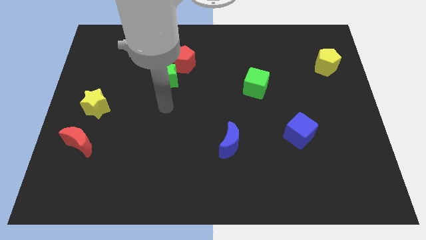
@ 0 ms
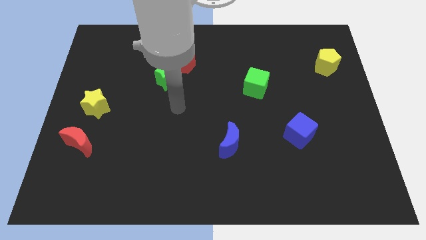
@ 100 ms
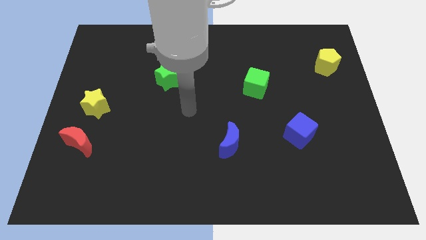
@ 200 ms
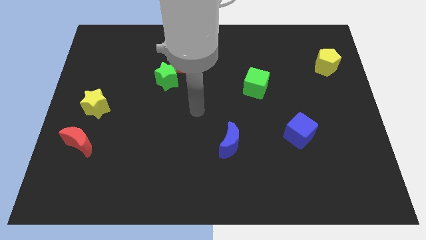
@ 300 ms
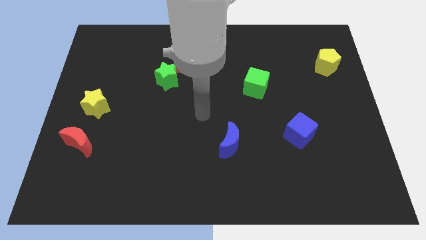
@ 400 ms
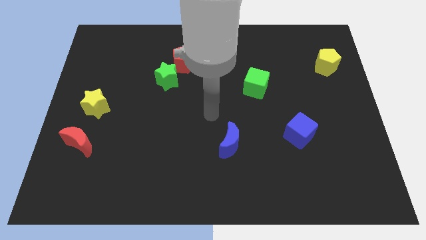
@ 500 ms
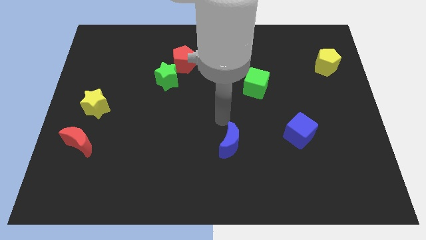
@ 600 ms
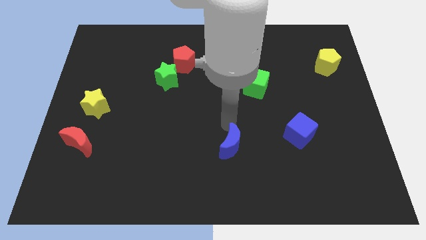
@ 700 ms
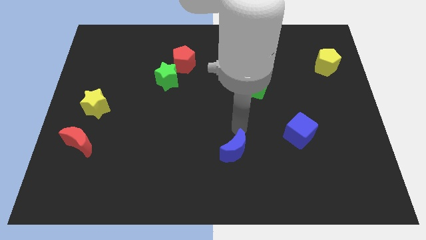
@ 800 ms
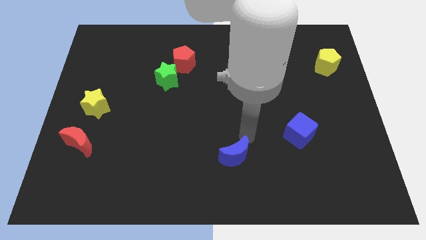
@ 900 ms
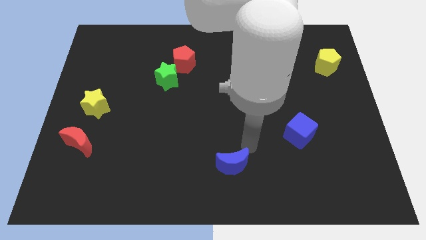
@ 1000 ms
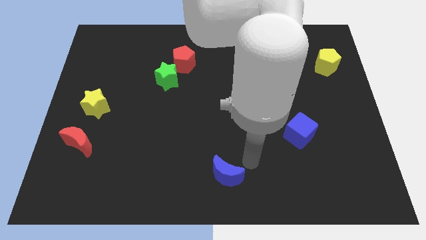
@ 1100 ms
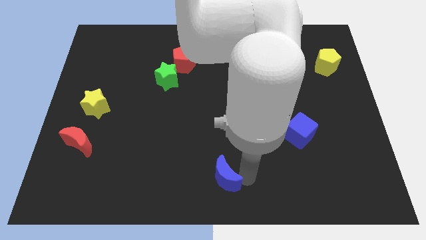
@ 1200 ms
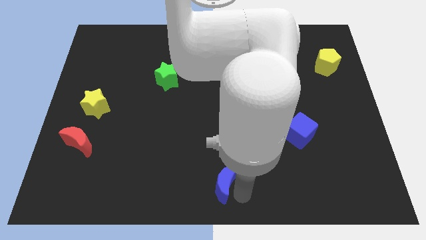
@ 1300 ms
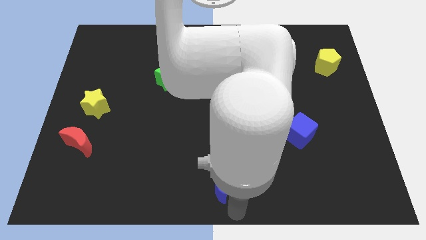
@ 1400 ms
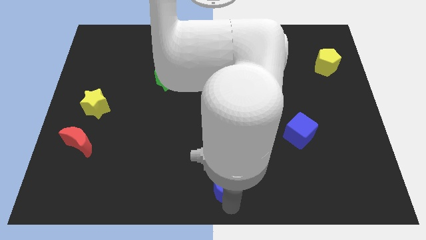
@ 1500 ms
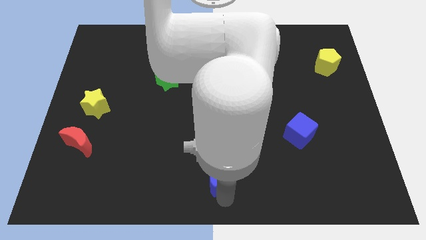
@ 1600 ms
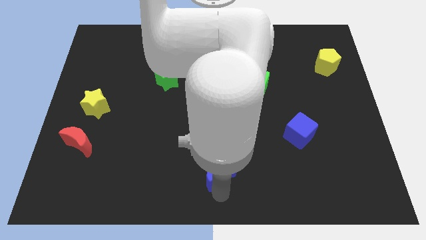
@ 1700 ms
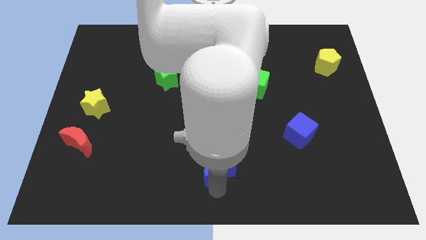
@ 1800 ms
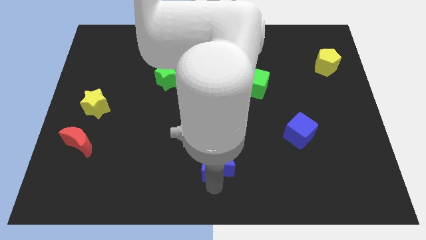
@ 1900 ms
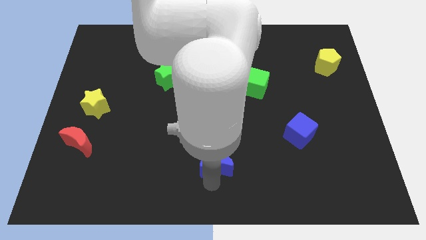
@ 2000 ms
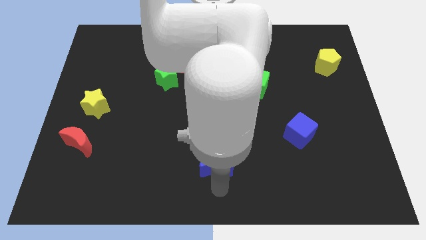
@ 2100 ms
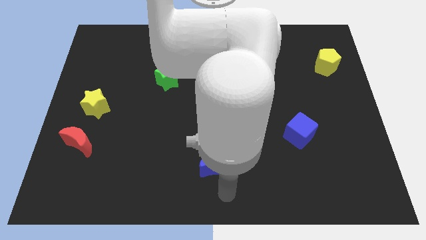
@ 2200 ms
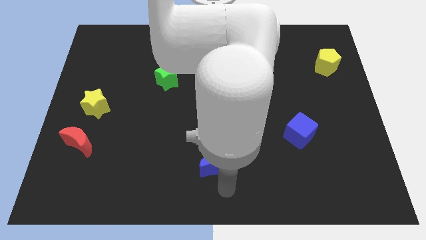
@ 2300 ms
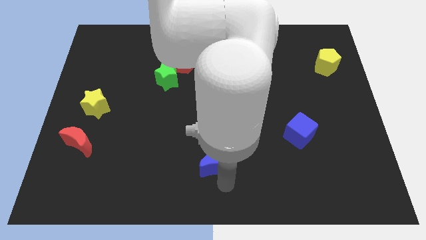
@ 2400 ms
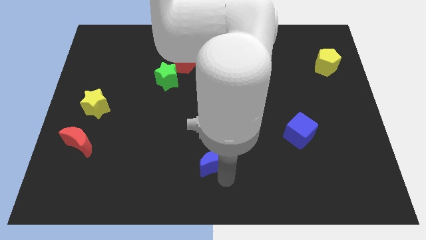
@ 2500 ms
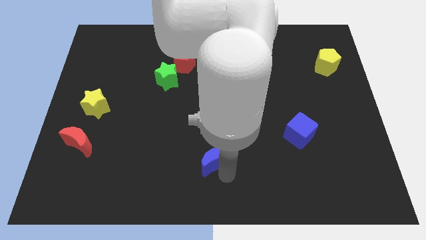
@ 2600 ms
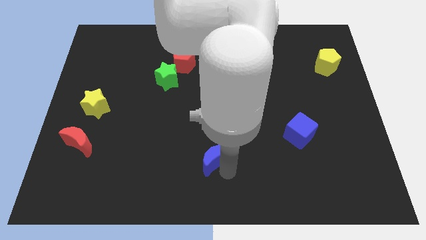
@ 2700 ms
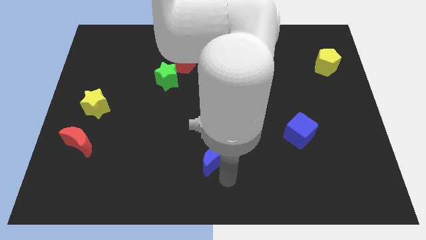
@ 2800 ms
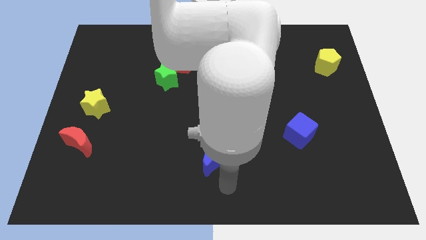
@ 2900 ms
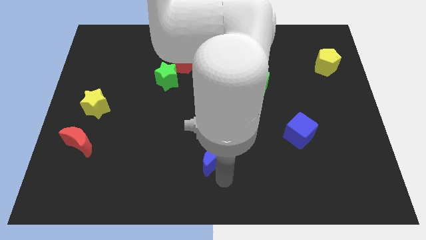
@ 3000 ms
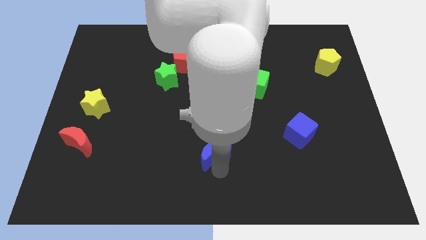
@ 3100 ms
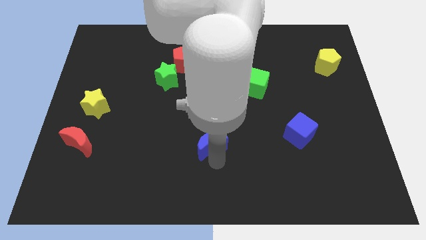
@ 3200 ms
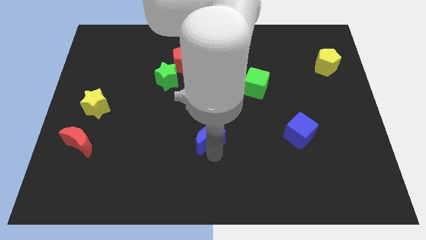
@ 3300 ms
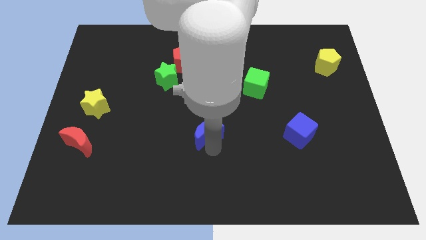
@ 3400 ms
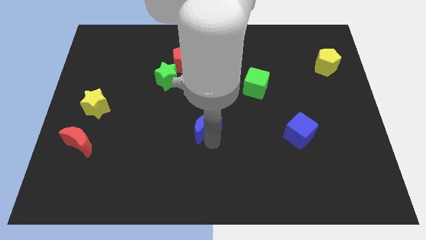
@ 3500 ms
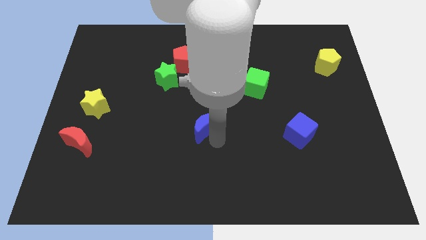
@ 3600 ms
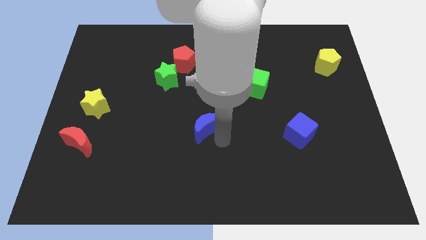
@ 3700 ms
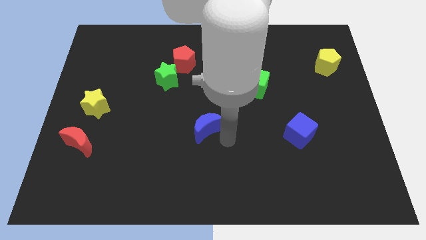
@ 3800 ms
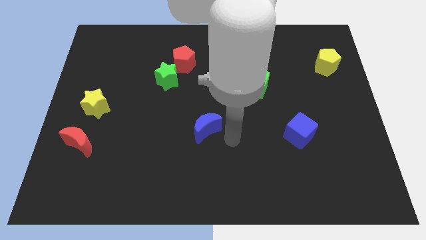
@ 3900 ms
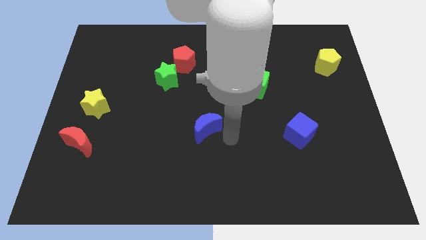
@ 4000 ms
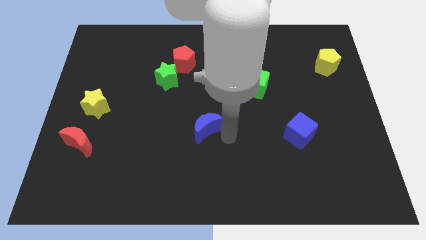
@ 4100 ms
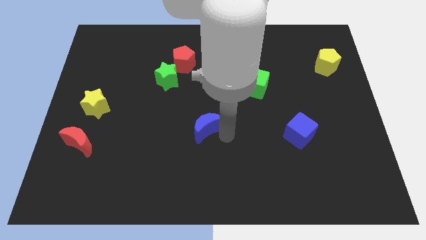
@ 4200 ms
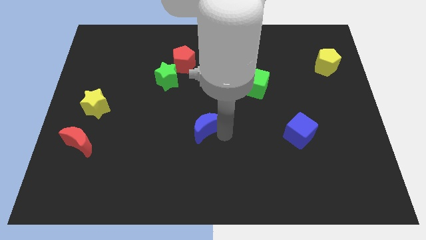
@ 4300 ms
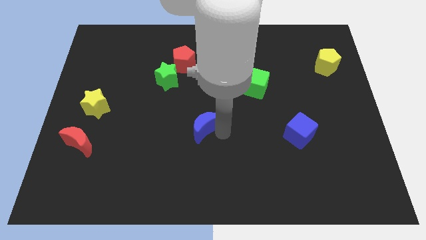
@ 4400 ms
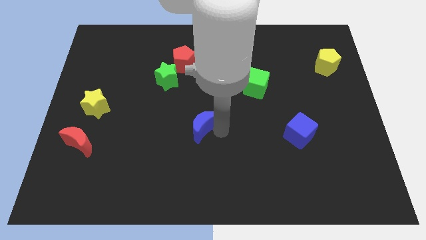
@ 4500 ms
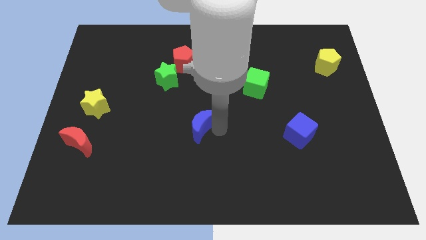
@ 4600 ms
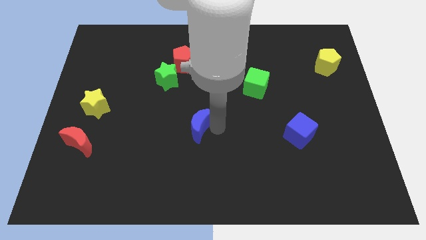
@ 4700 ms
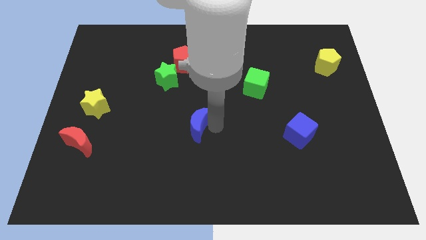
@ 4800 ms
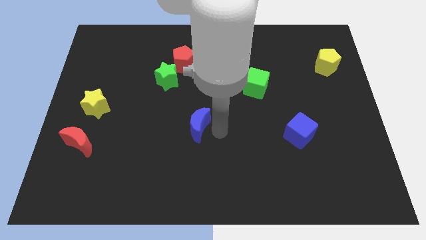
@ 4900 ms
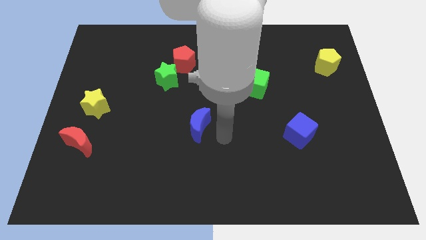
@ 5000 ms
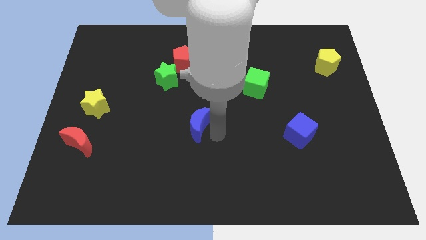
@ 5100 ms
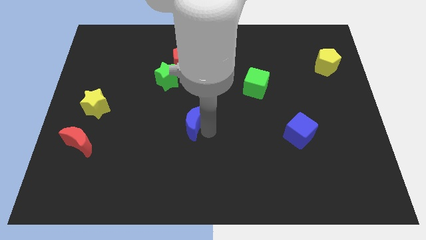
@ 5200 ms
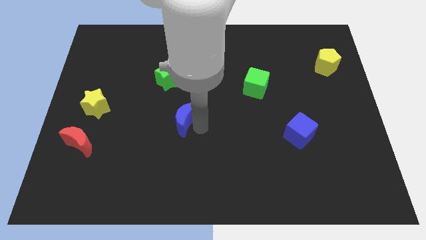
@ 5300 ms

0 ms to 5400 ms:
push the blue moon to the bottom side of the green star

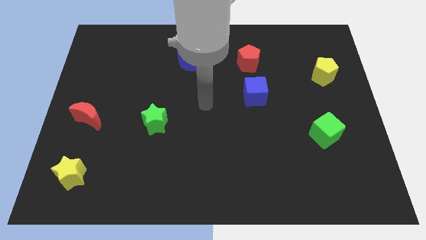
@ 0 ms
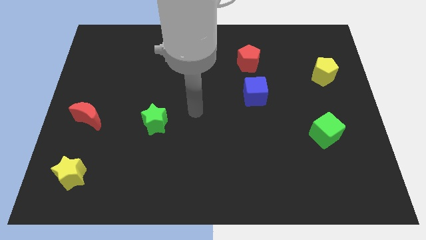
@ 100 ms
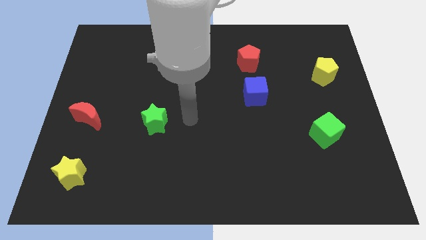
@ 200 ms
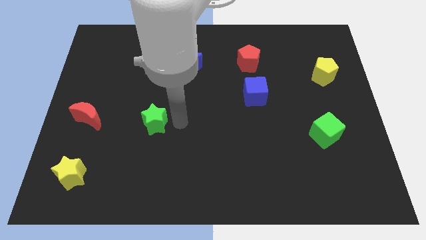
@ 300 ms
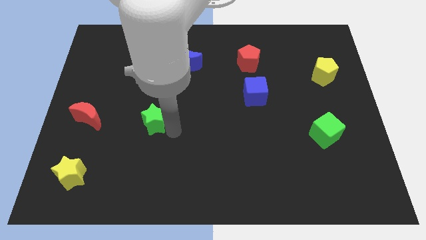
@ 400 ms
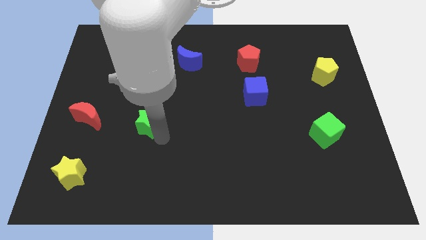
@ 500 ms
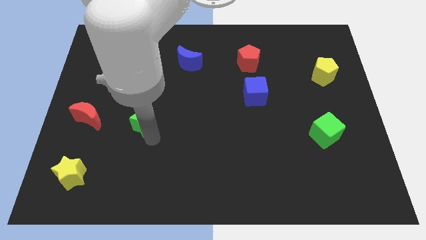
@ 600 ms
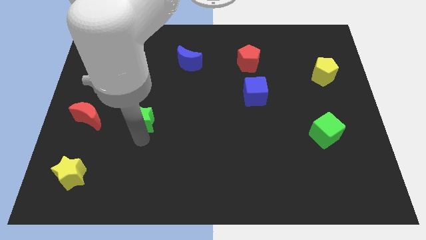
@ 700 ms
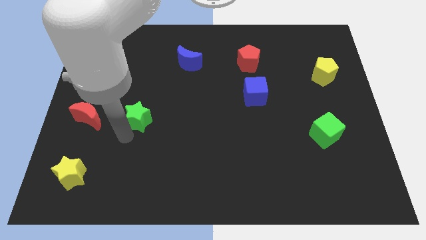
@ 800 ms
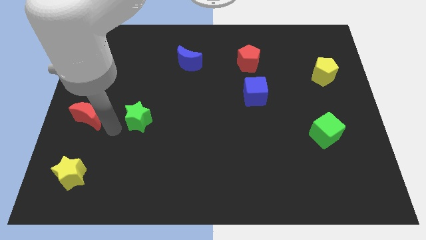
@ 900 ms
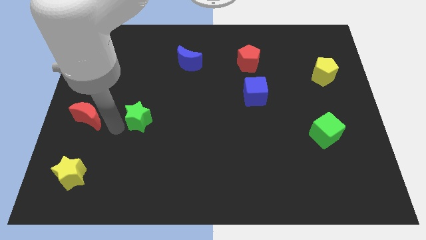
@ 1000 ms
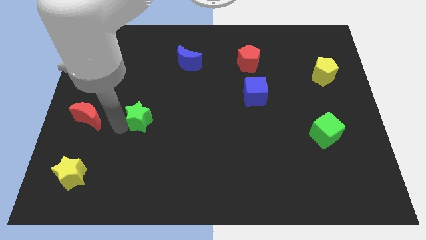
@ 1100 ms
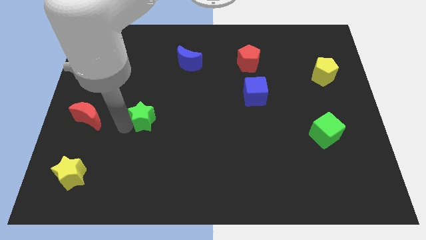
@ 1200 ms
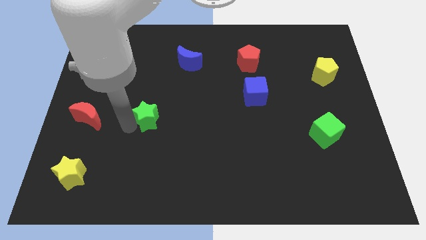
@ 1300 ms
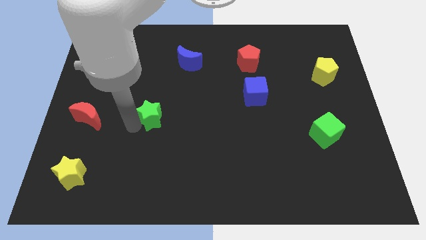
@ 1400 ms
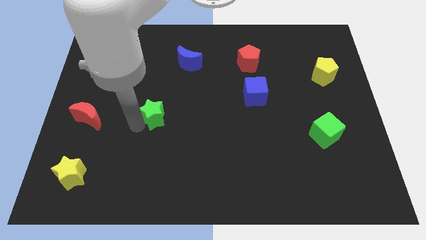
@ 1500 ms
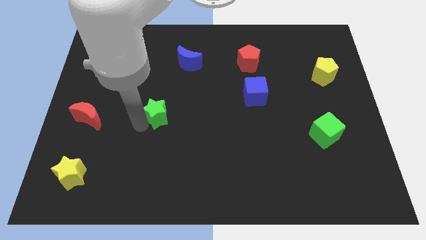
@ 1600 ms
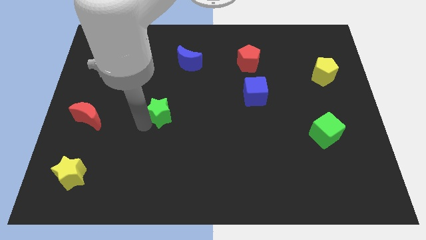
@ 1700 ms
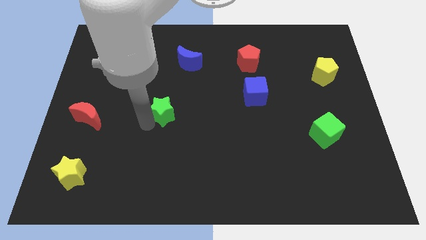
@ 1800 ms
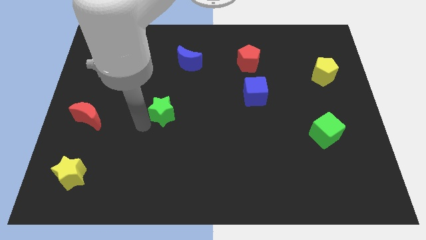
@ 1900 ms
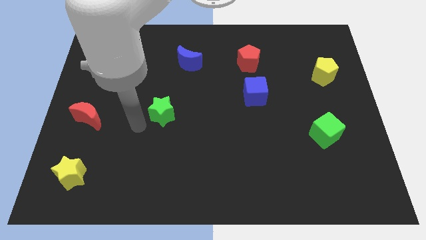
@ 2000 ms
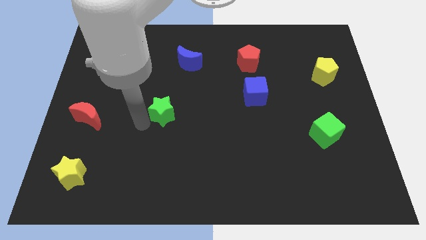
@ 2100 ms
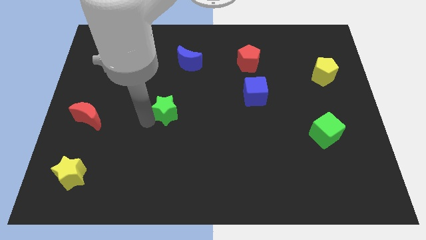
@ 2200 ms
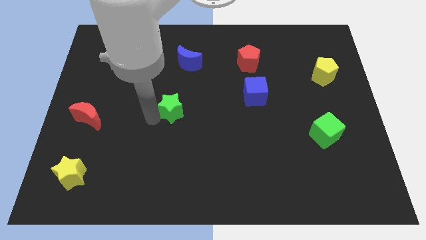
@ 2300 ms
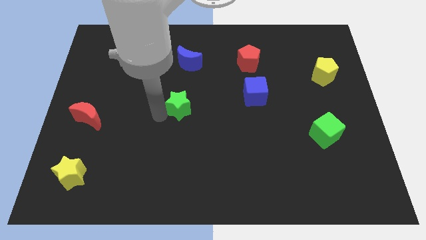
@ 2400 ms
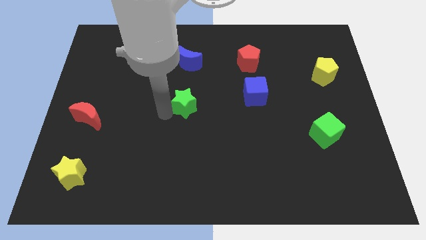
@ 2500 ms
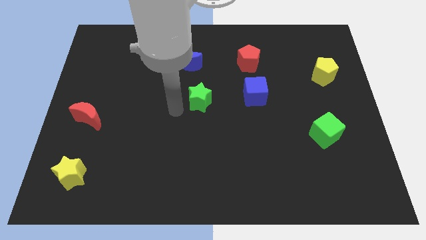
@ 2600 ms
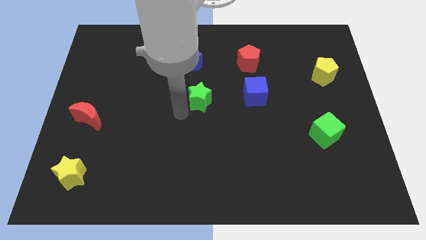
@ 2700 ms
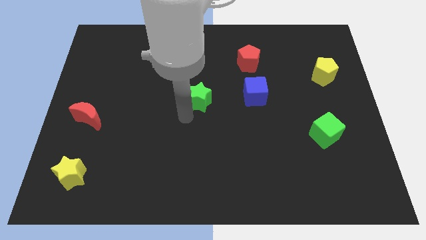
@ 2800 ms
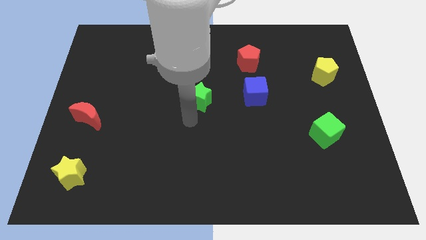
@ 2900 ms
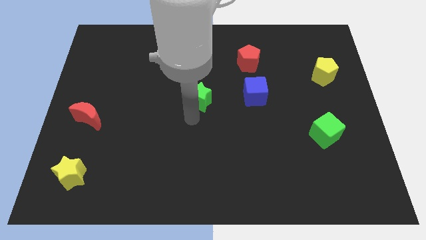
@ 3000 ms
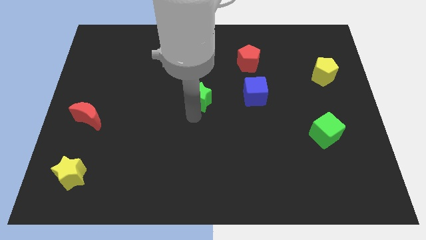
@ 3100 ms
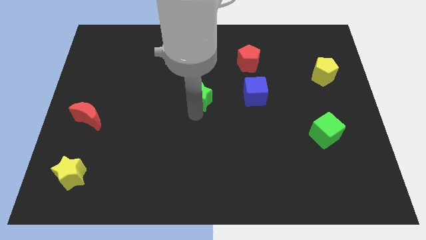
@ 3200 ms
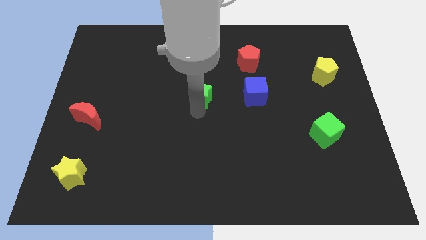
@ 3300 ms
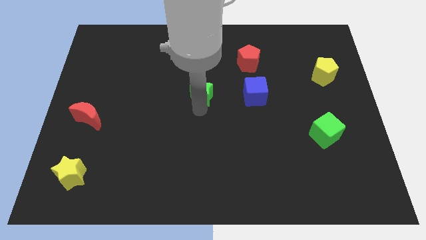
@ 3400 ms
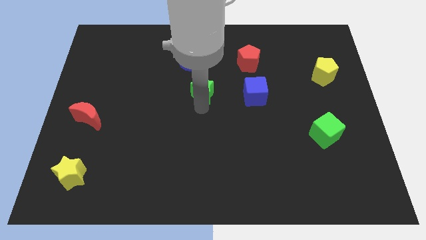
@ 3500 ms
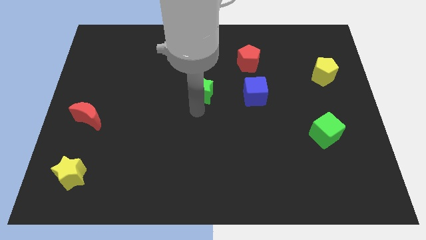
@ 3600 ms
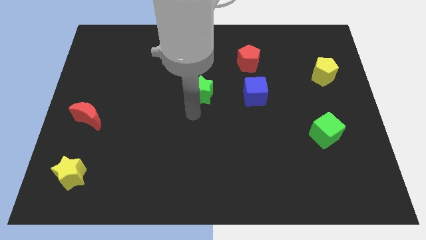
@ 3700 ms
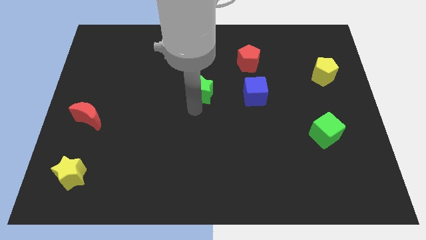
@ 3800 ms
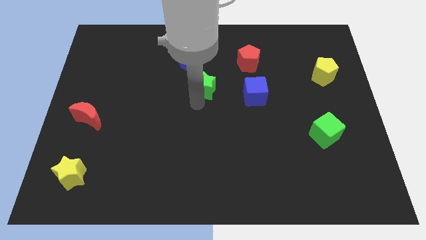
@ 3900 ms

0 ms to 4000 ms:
push the green star to the bottom right side of the blue moon
